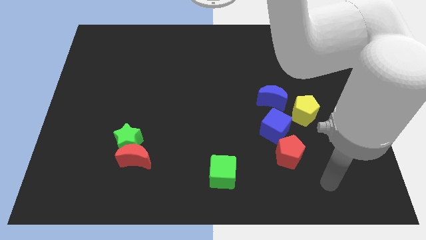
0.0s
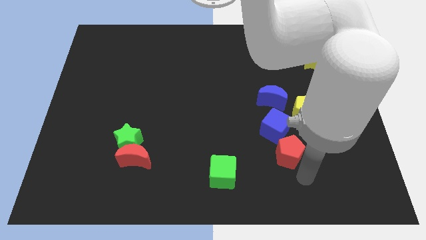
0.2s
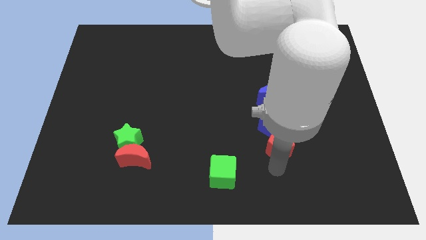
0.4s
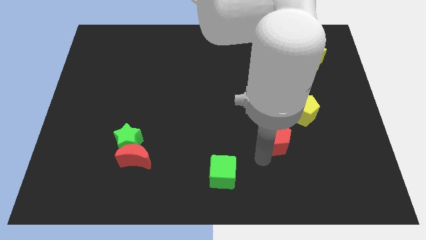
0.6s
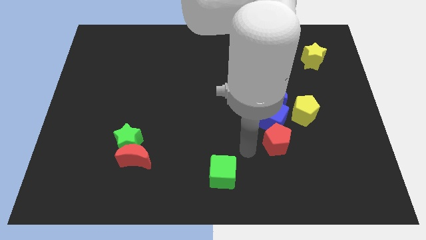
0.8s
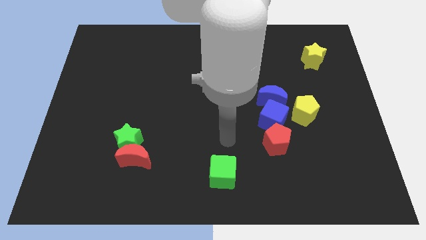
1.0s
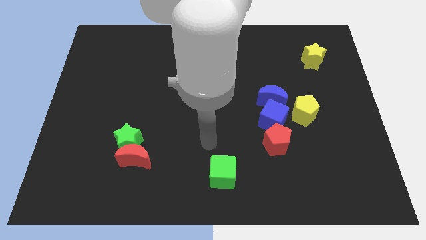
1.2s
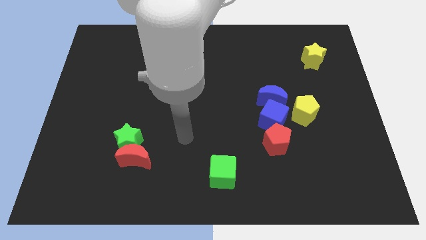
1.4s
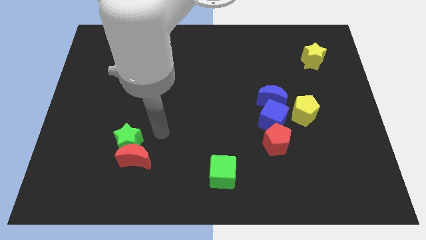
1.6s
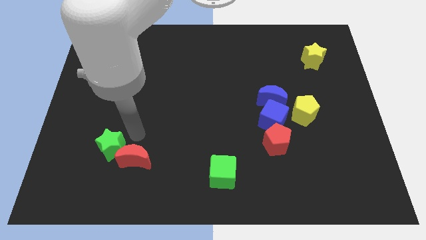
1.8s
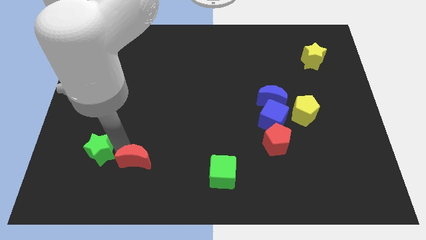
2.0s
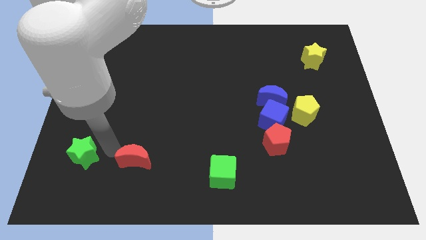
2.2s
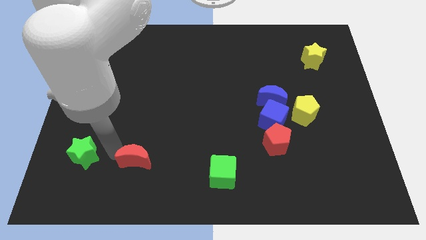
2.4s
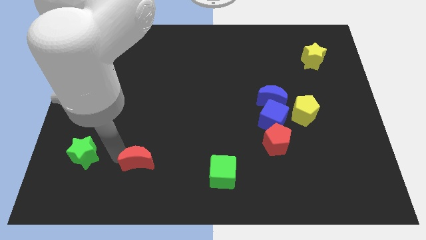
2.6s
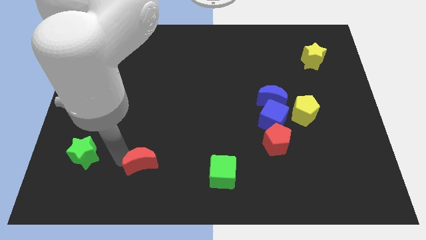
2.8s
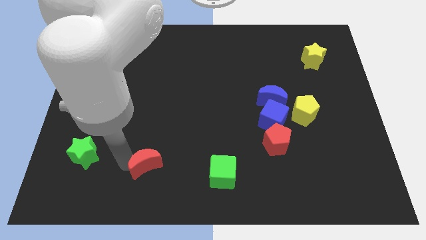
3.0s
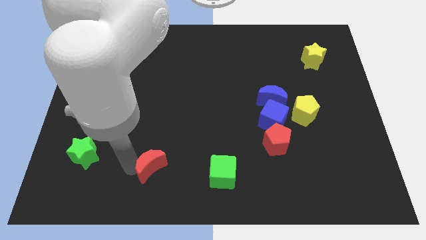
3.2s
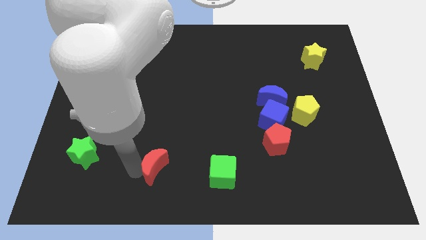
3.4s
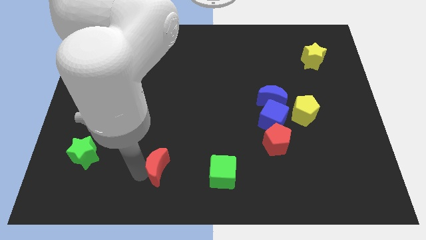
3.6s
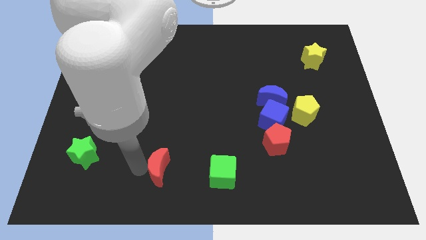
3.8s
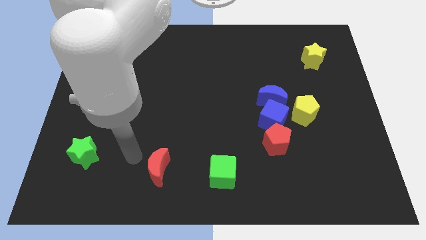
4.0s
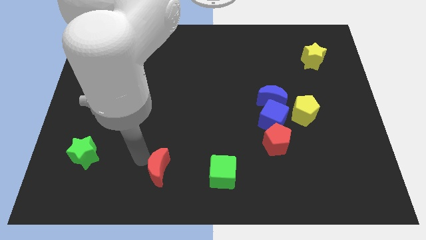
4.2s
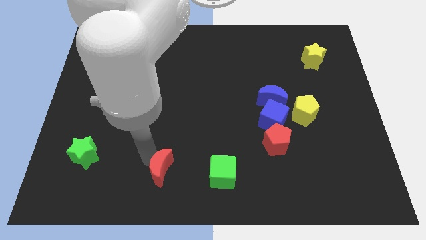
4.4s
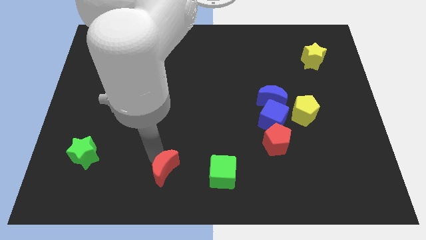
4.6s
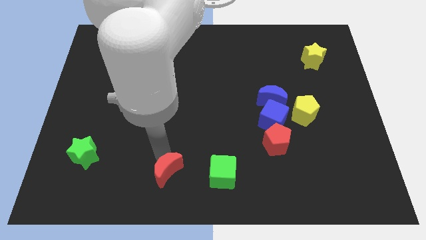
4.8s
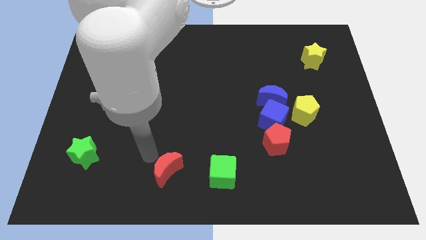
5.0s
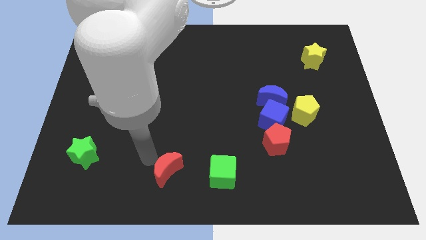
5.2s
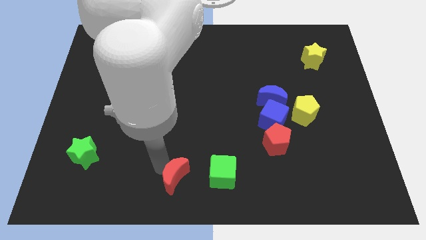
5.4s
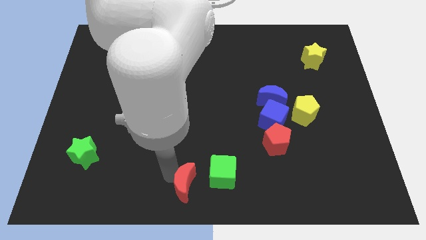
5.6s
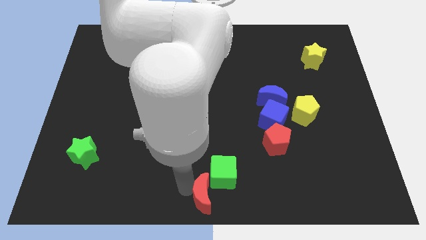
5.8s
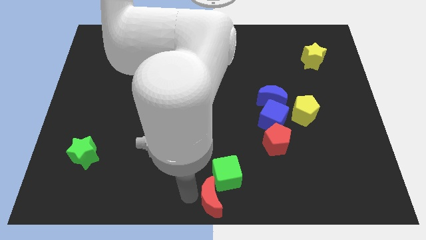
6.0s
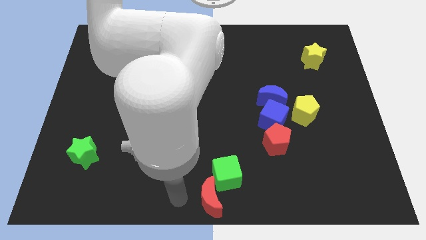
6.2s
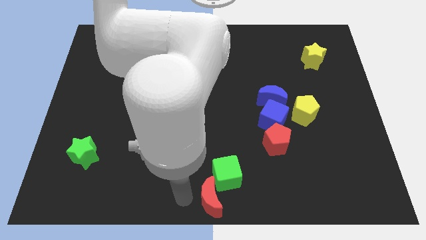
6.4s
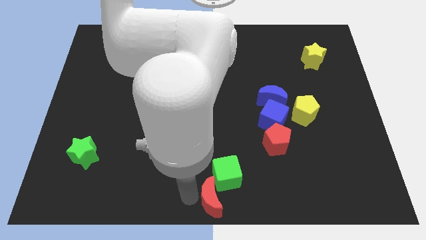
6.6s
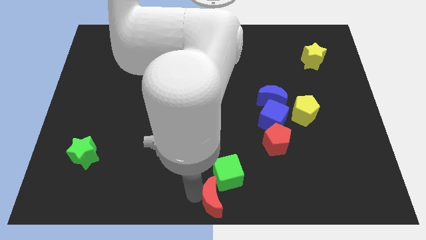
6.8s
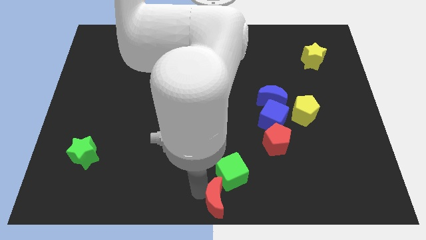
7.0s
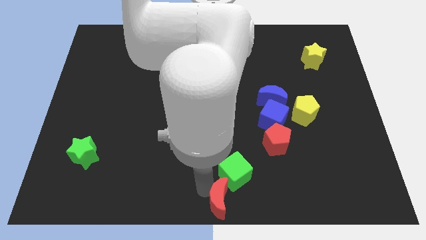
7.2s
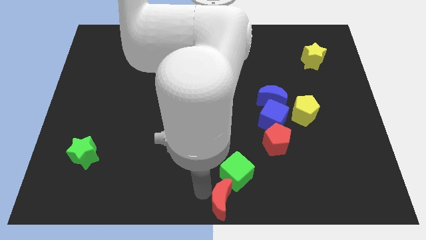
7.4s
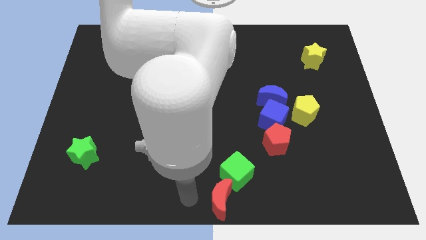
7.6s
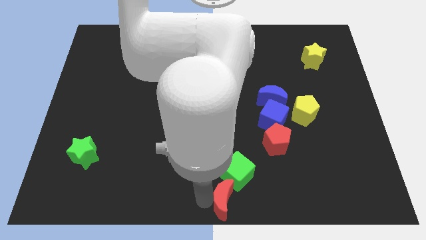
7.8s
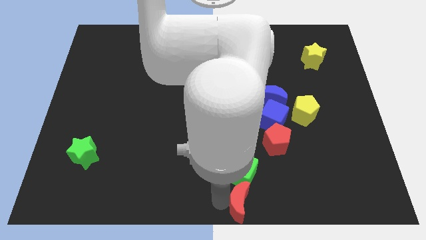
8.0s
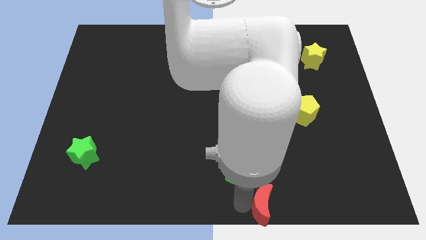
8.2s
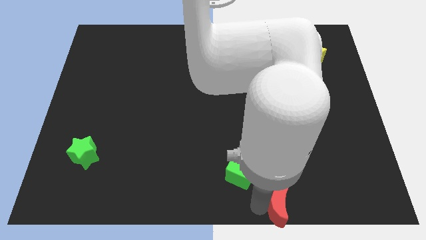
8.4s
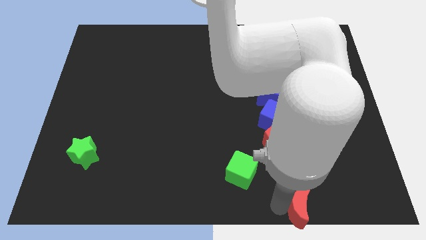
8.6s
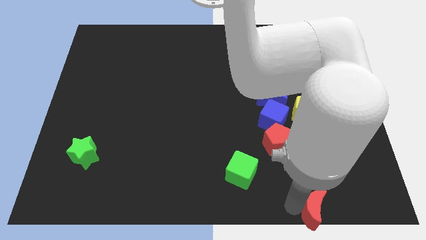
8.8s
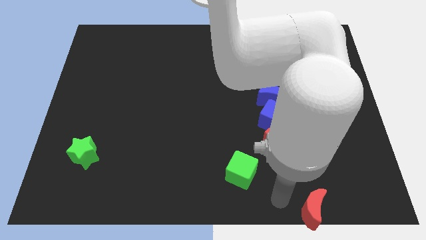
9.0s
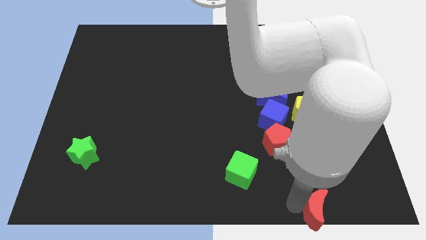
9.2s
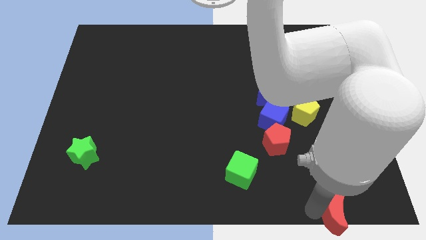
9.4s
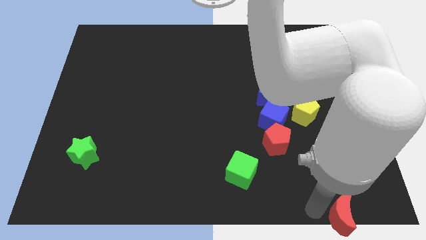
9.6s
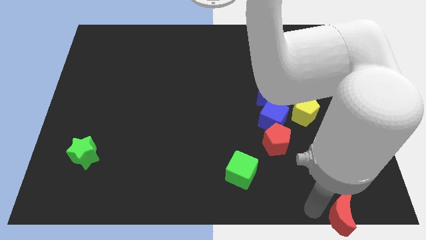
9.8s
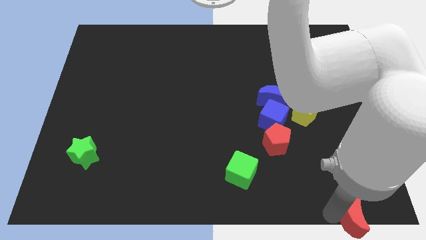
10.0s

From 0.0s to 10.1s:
slide the red moon to the bottom right corner

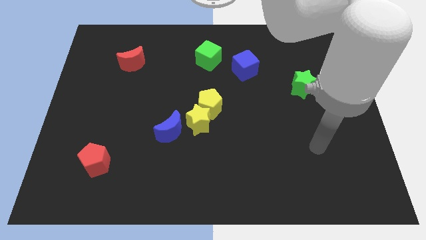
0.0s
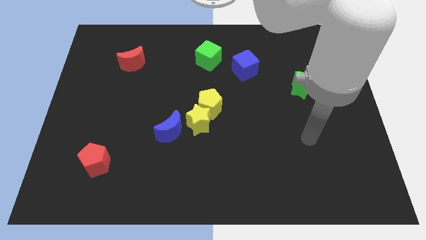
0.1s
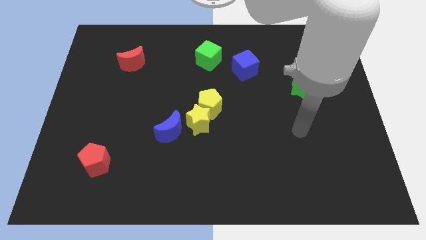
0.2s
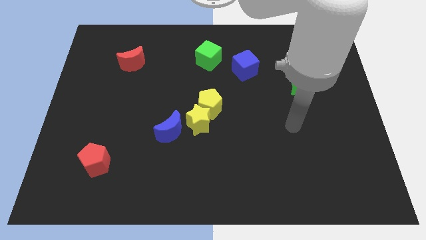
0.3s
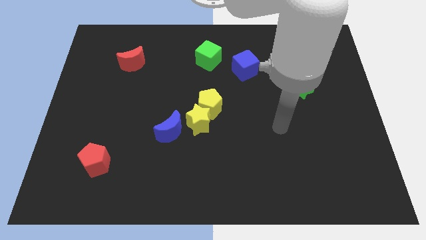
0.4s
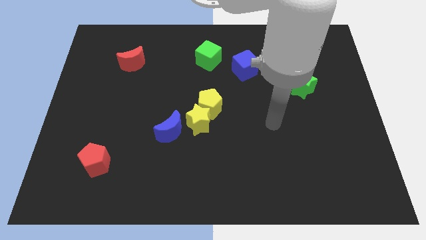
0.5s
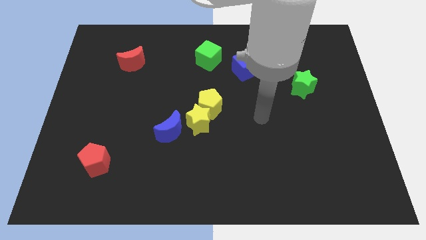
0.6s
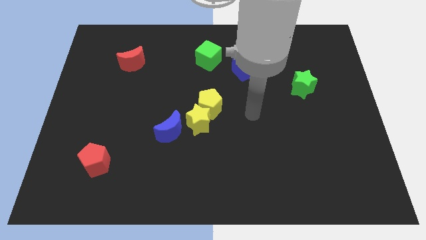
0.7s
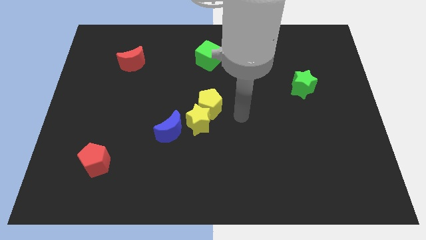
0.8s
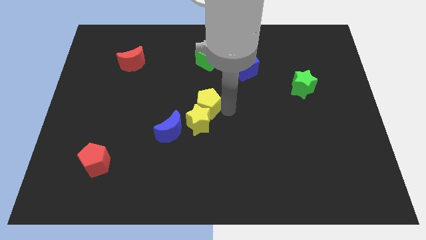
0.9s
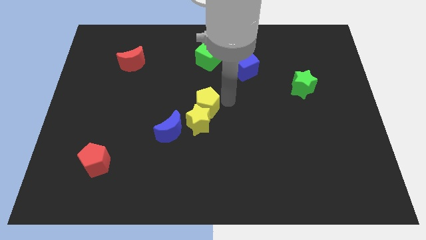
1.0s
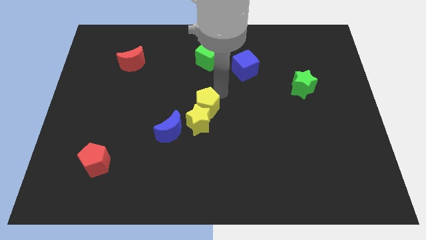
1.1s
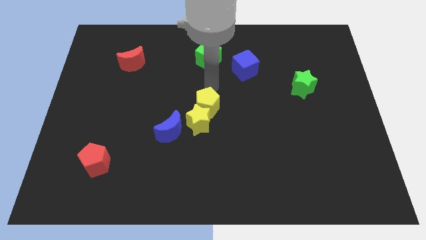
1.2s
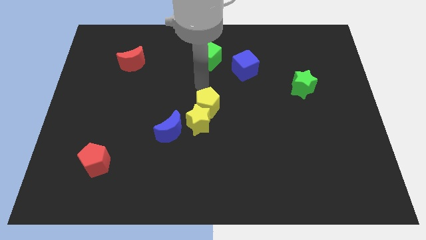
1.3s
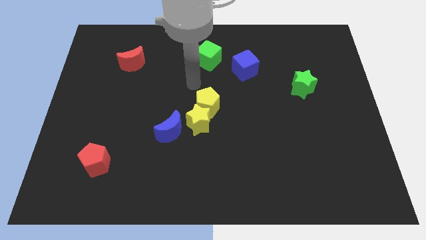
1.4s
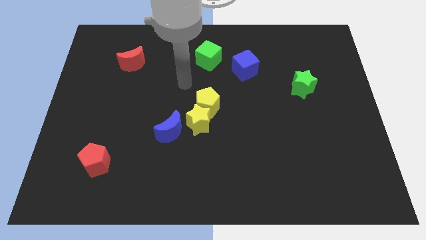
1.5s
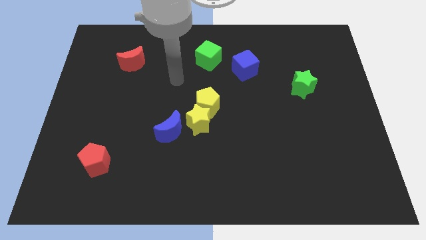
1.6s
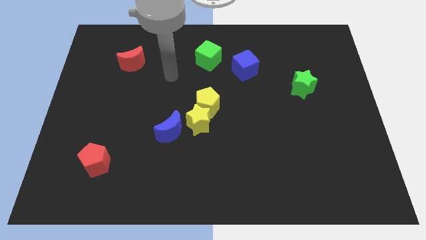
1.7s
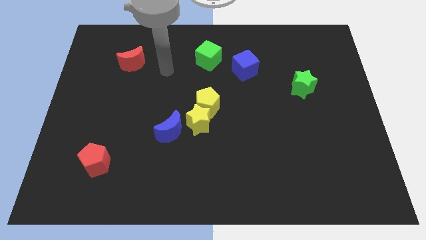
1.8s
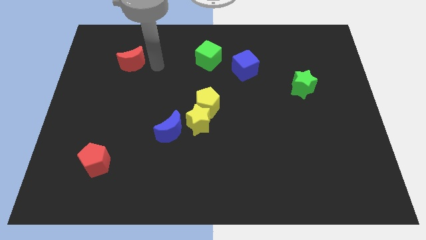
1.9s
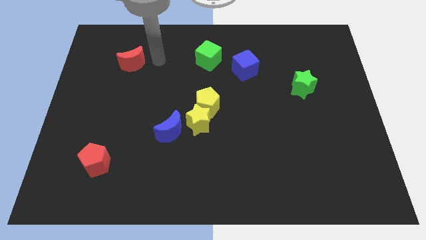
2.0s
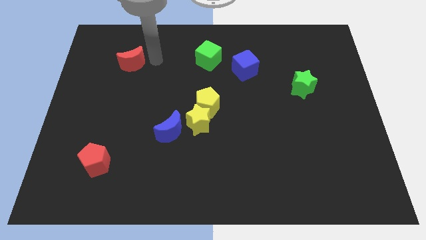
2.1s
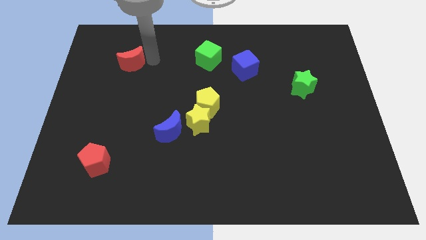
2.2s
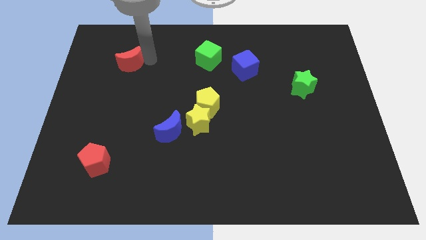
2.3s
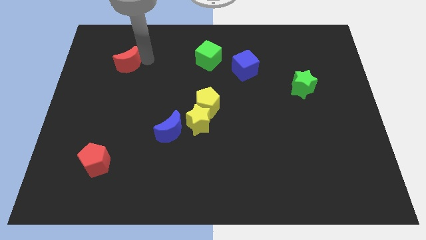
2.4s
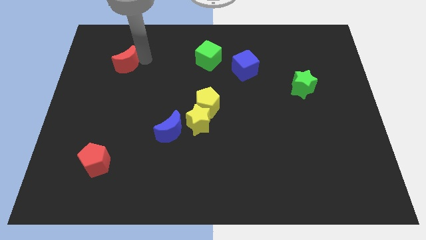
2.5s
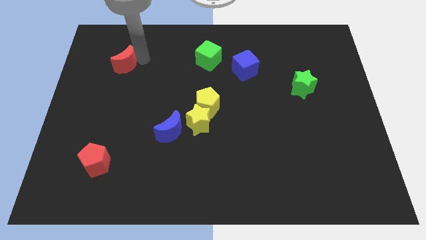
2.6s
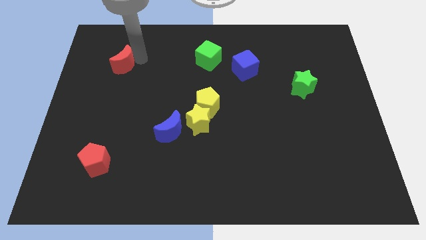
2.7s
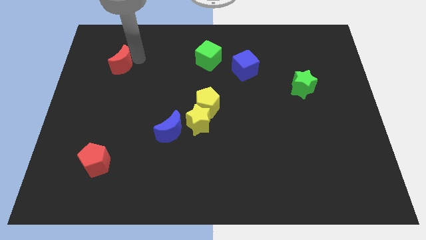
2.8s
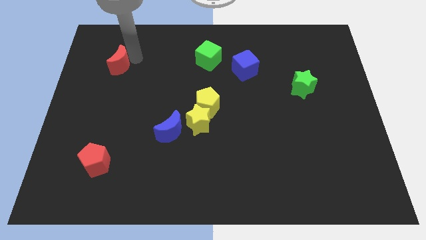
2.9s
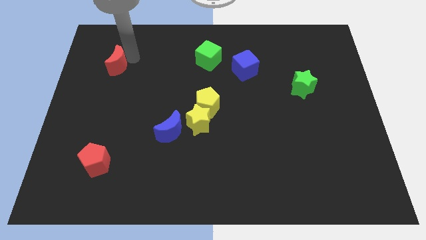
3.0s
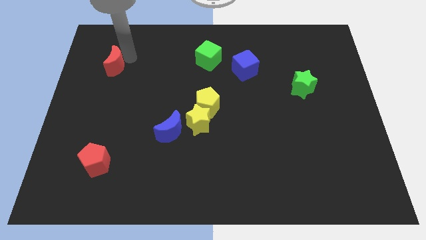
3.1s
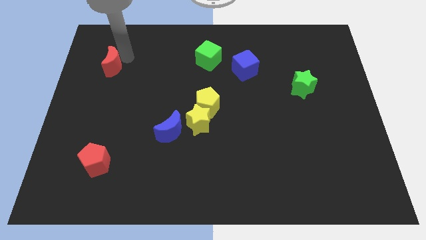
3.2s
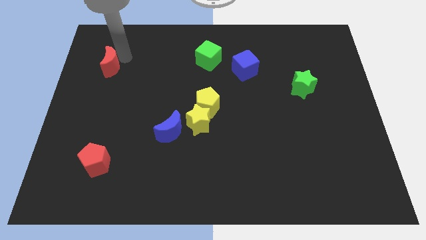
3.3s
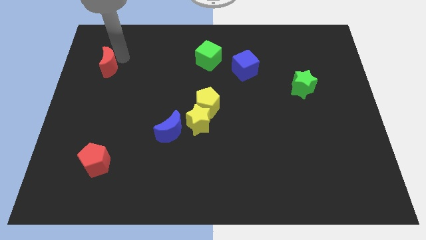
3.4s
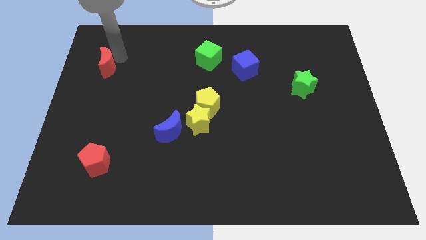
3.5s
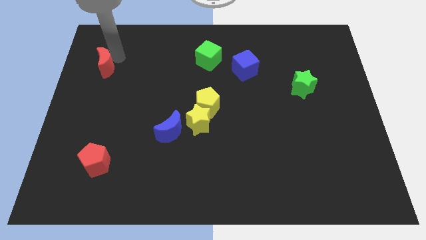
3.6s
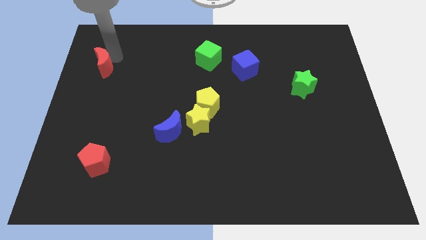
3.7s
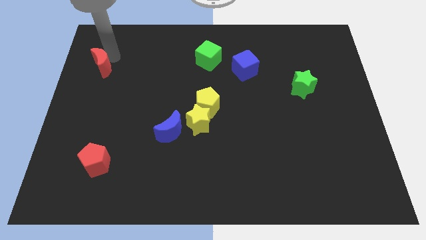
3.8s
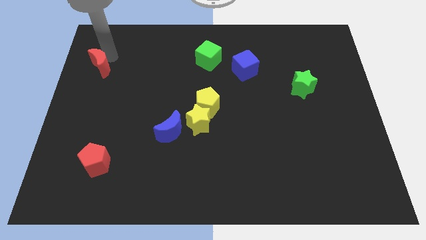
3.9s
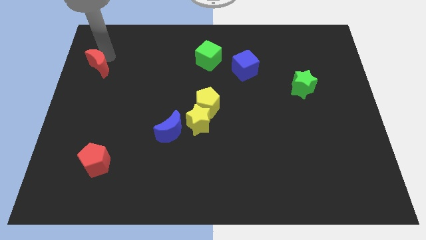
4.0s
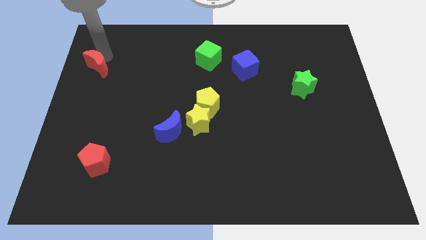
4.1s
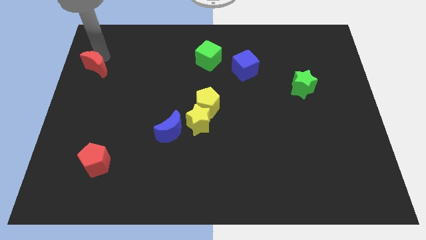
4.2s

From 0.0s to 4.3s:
move the red moon to the left side of the board
